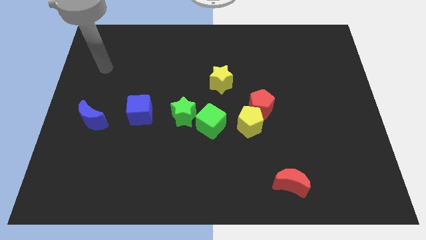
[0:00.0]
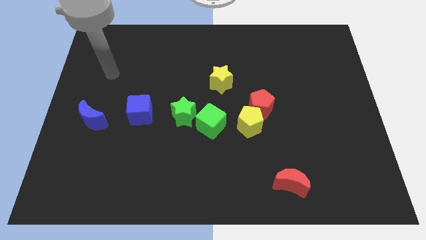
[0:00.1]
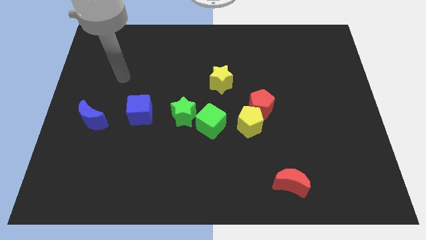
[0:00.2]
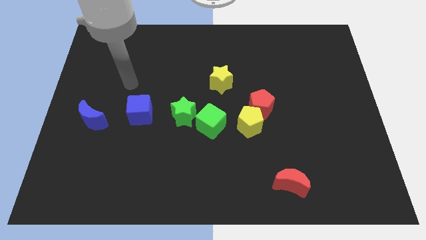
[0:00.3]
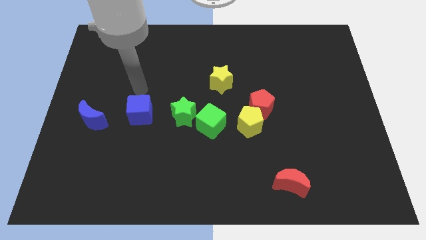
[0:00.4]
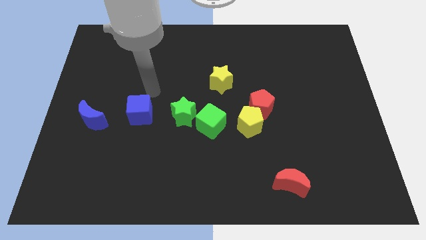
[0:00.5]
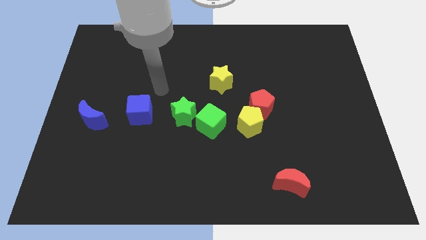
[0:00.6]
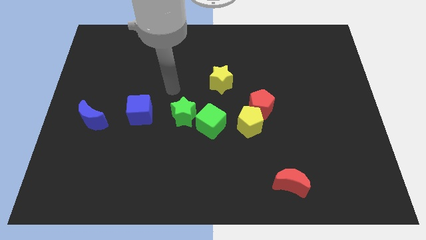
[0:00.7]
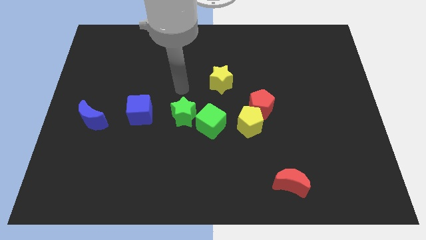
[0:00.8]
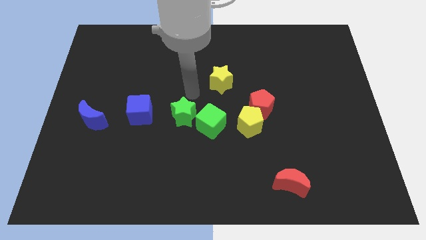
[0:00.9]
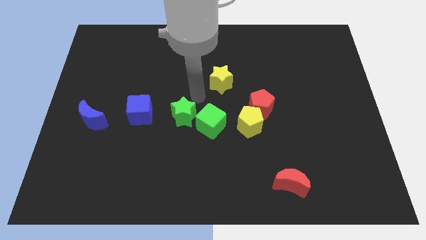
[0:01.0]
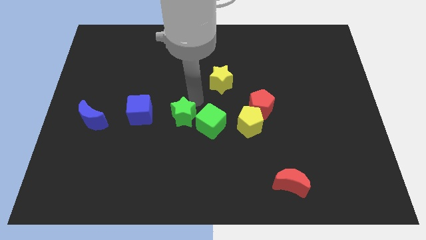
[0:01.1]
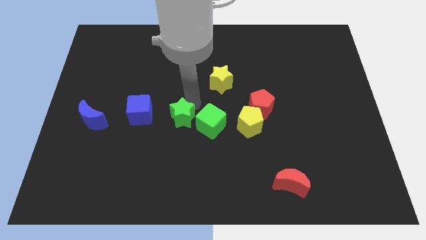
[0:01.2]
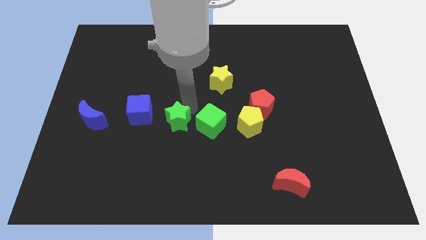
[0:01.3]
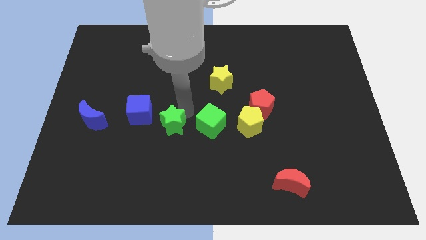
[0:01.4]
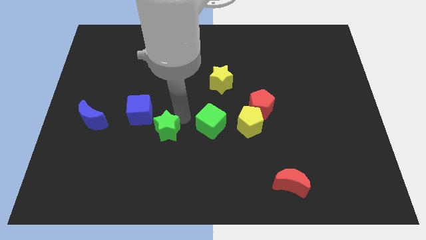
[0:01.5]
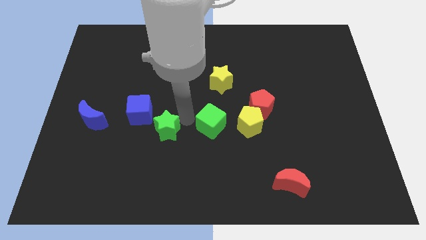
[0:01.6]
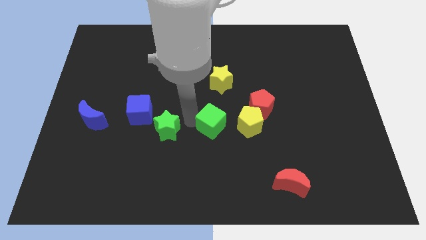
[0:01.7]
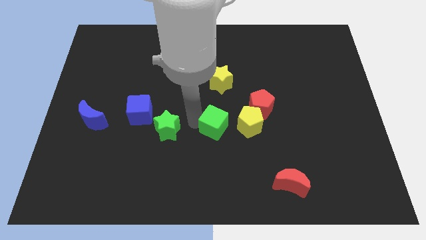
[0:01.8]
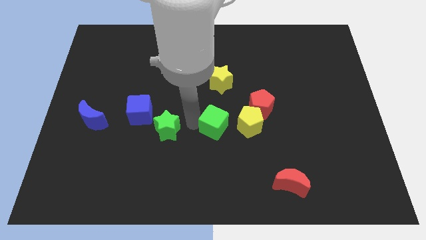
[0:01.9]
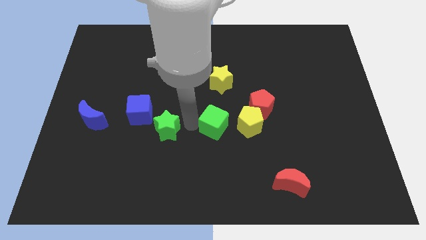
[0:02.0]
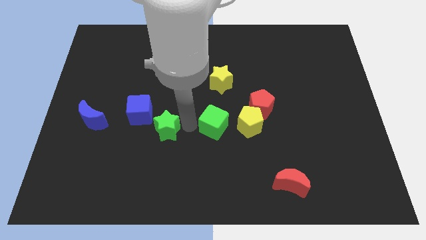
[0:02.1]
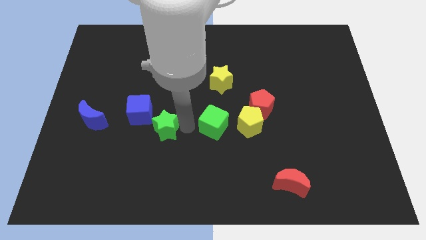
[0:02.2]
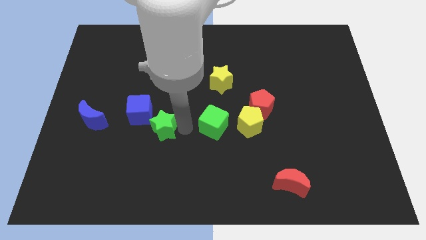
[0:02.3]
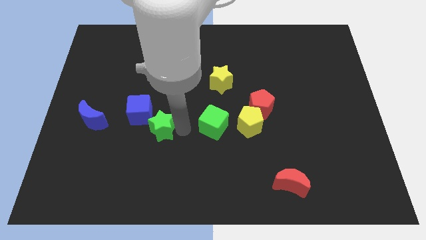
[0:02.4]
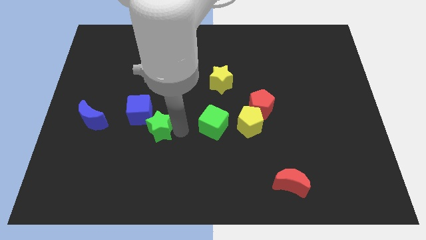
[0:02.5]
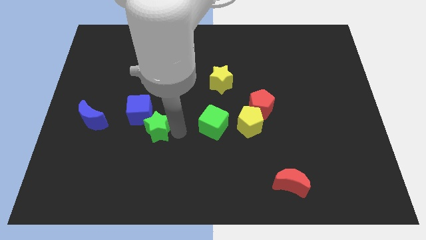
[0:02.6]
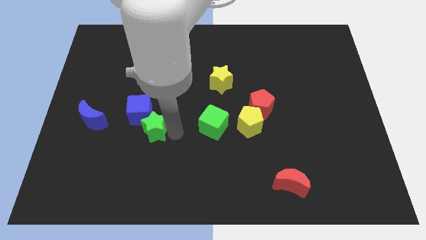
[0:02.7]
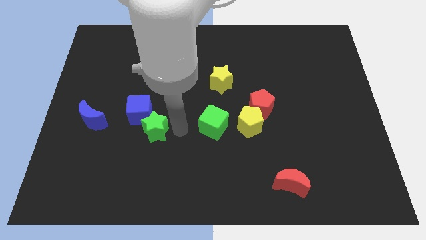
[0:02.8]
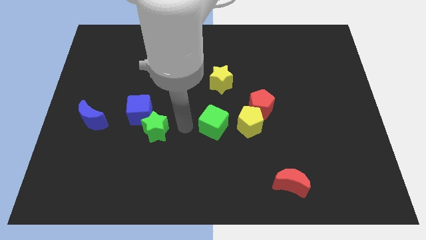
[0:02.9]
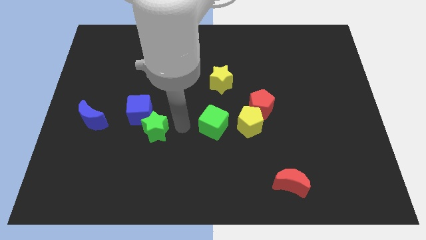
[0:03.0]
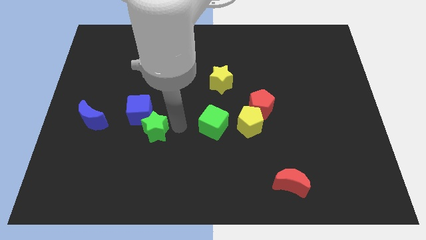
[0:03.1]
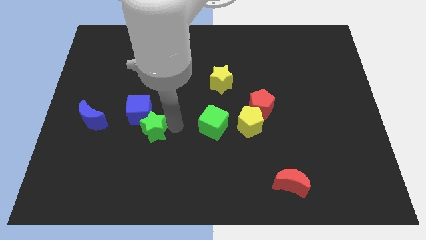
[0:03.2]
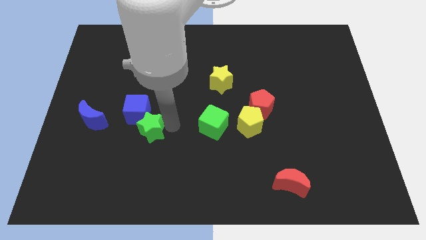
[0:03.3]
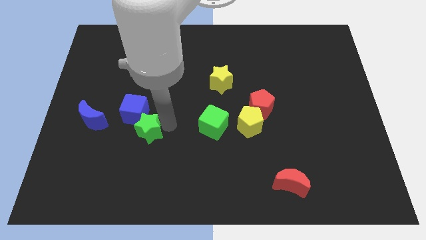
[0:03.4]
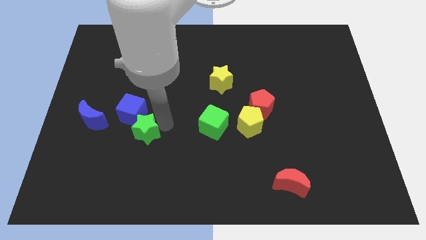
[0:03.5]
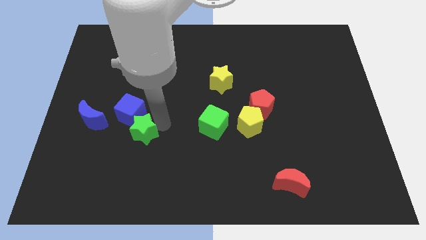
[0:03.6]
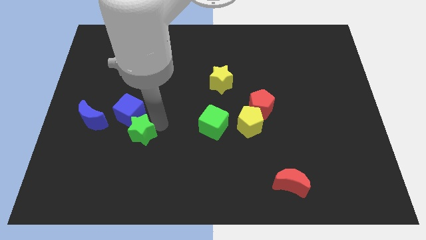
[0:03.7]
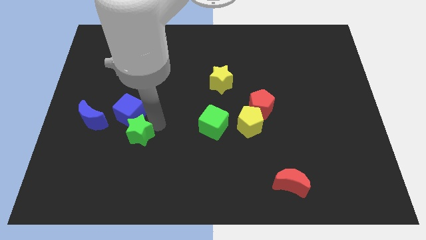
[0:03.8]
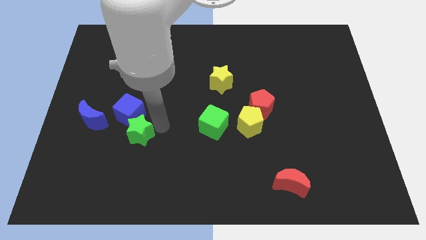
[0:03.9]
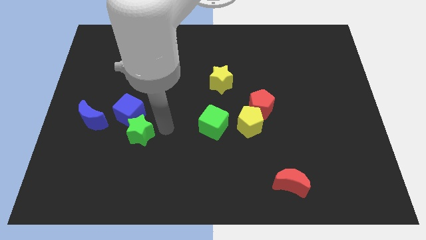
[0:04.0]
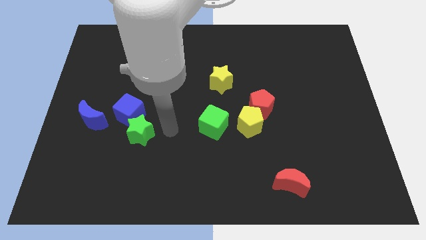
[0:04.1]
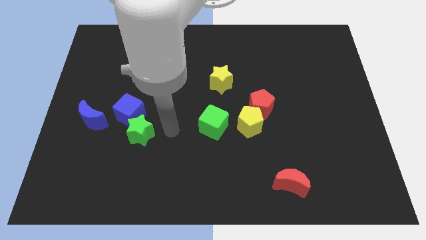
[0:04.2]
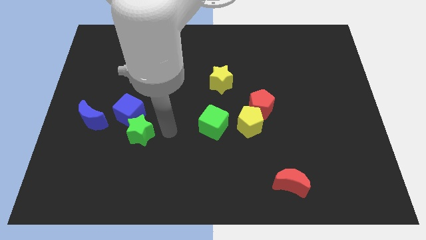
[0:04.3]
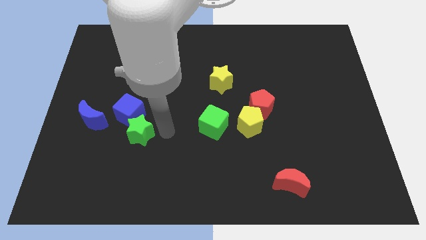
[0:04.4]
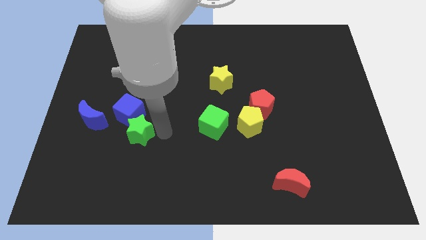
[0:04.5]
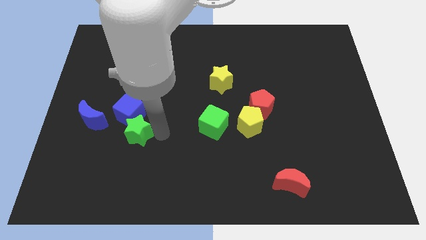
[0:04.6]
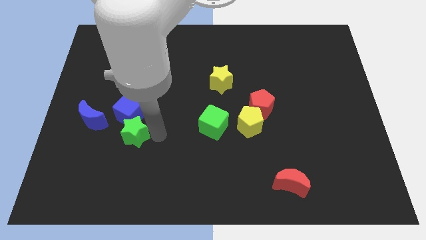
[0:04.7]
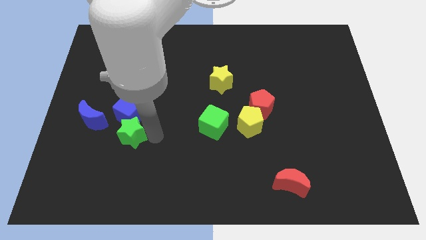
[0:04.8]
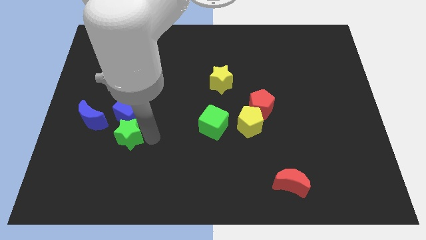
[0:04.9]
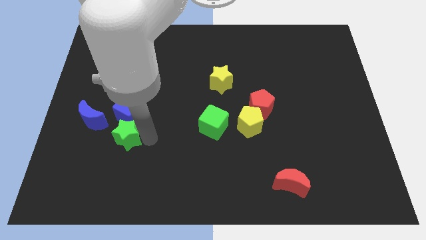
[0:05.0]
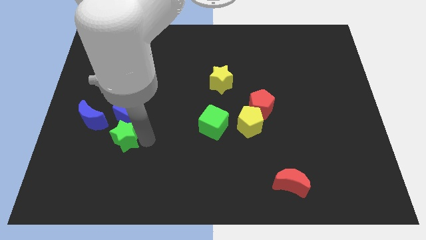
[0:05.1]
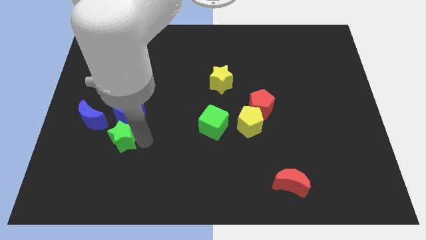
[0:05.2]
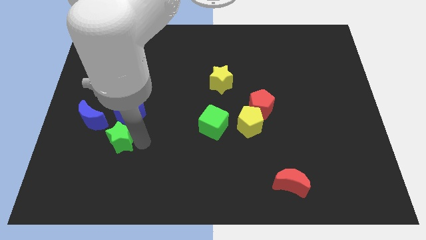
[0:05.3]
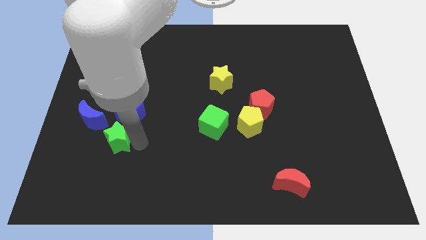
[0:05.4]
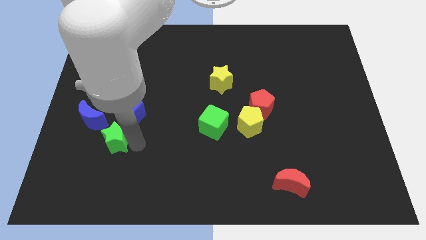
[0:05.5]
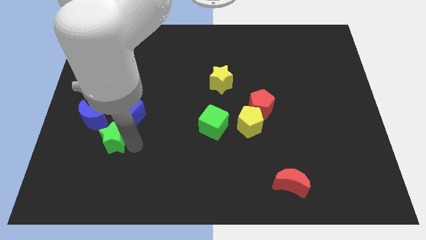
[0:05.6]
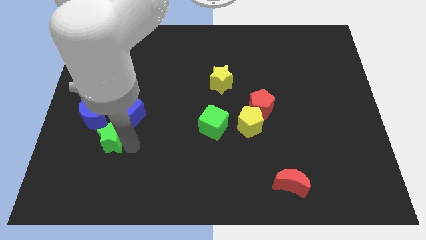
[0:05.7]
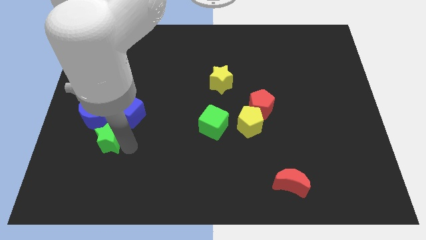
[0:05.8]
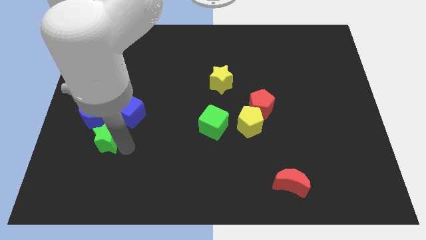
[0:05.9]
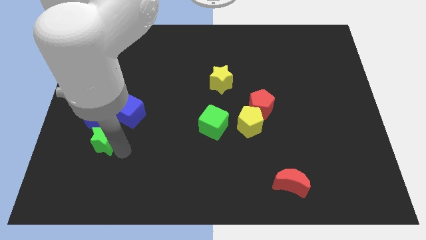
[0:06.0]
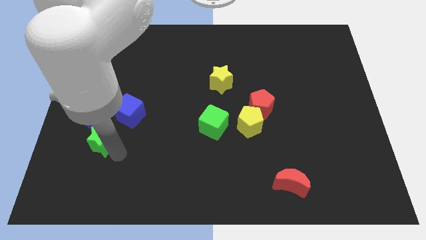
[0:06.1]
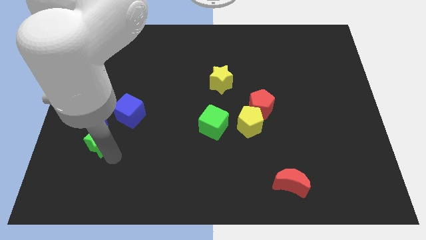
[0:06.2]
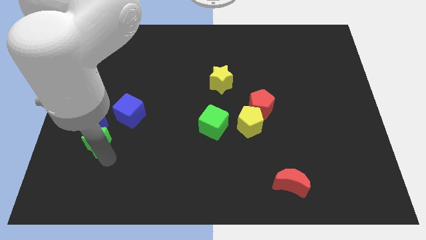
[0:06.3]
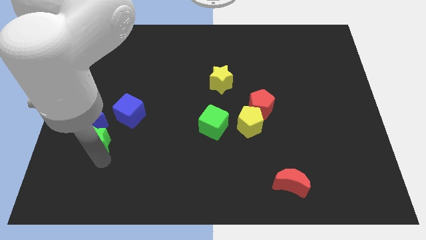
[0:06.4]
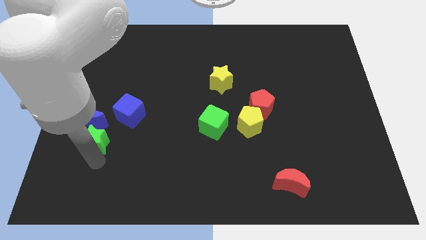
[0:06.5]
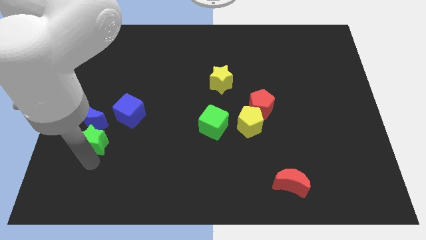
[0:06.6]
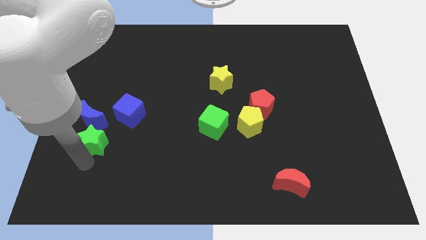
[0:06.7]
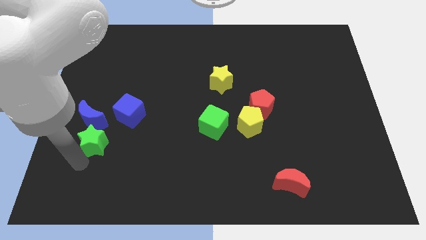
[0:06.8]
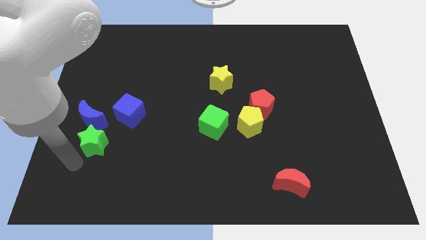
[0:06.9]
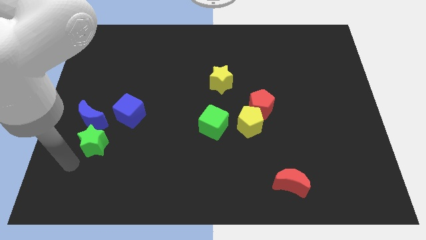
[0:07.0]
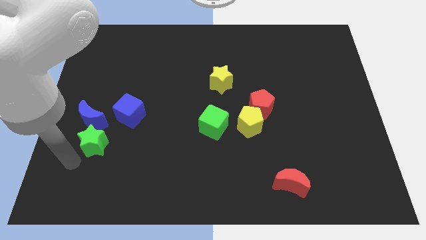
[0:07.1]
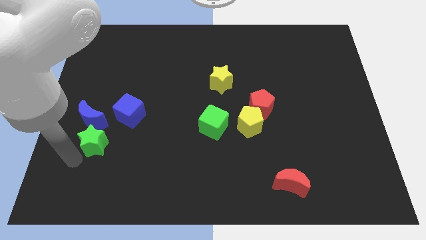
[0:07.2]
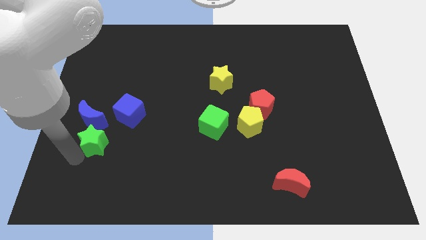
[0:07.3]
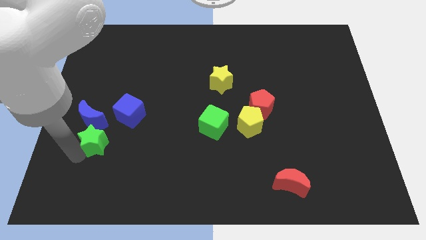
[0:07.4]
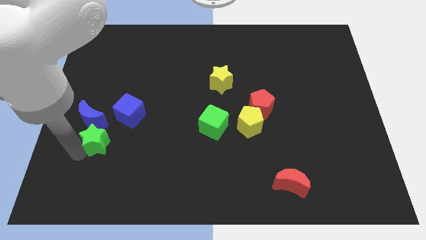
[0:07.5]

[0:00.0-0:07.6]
move the green star close to the blue moon
